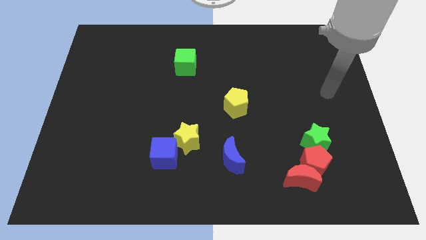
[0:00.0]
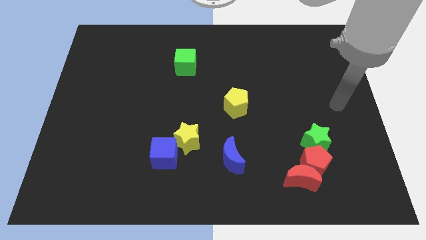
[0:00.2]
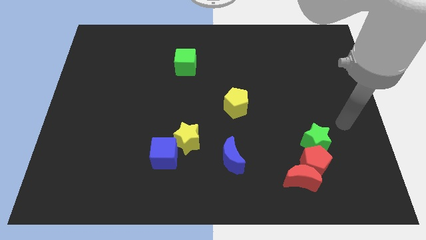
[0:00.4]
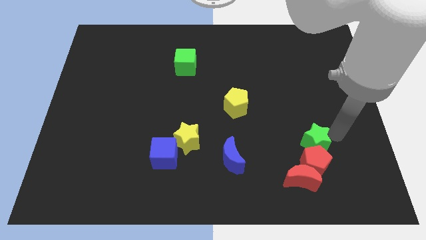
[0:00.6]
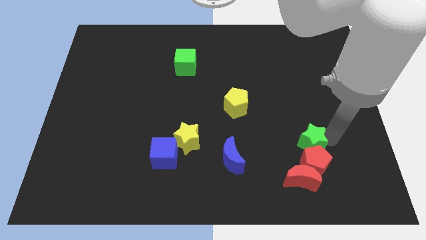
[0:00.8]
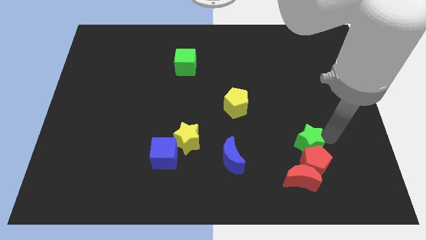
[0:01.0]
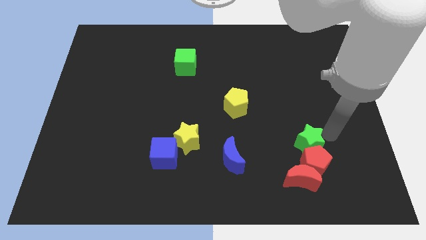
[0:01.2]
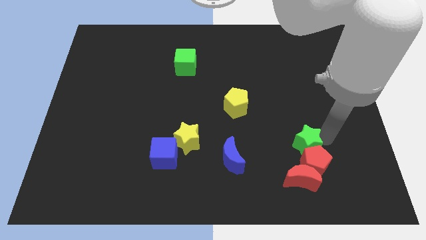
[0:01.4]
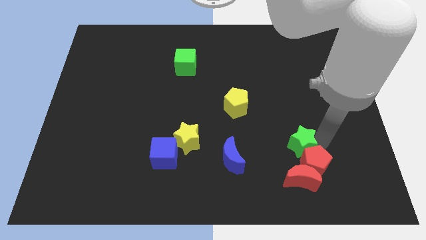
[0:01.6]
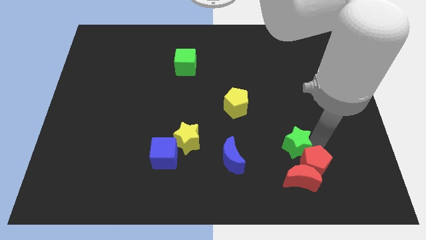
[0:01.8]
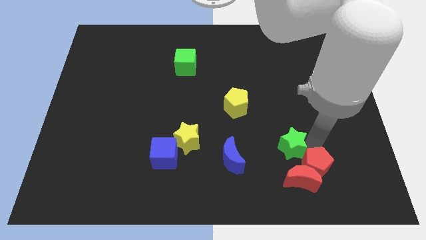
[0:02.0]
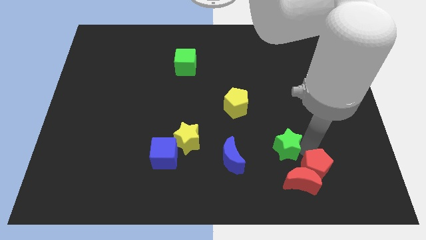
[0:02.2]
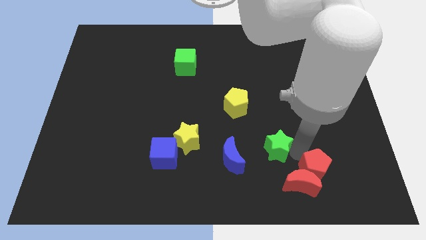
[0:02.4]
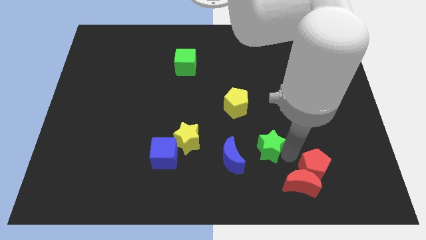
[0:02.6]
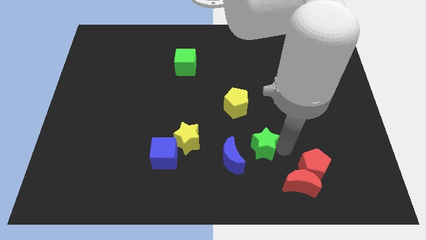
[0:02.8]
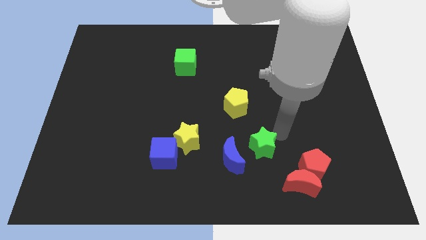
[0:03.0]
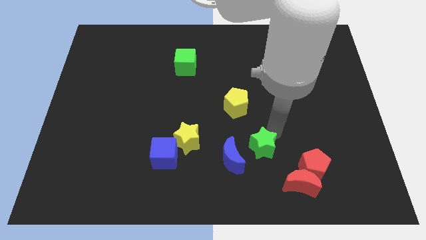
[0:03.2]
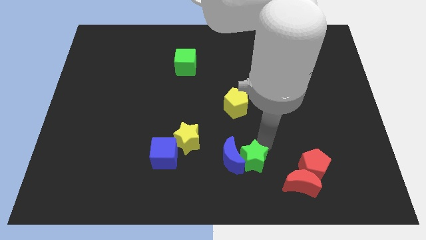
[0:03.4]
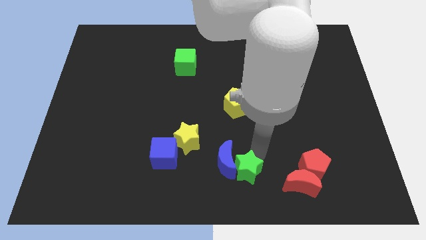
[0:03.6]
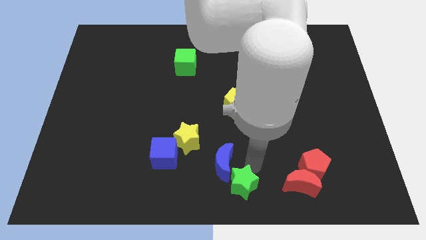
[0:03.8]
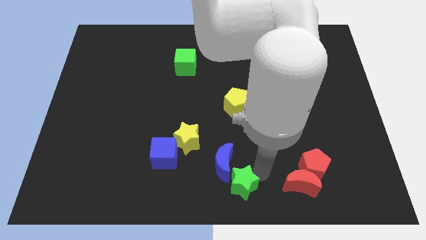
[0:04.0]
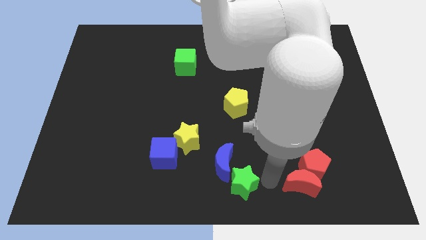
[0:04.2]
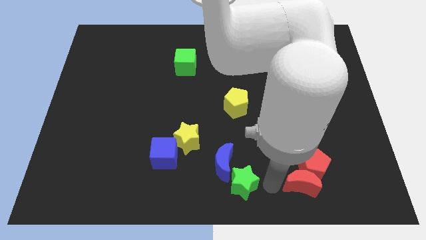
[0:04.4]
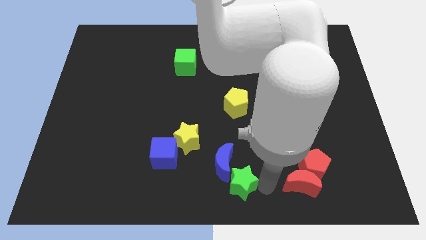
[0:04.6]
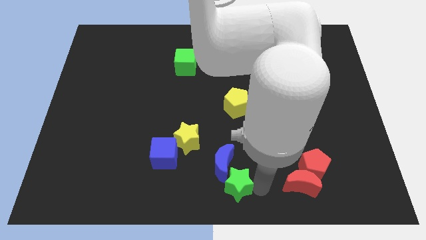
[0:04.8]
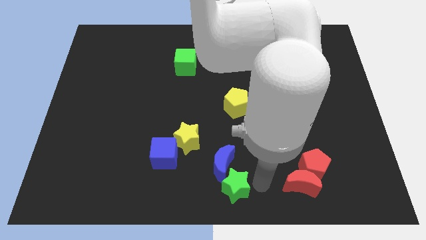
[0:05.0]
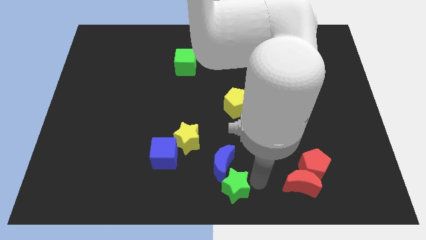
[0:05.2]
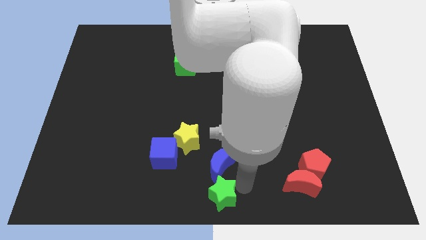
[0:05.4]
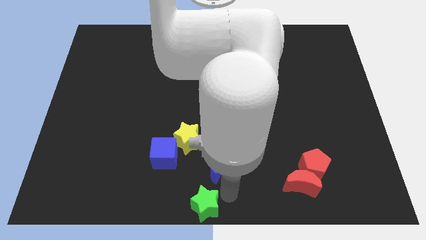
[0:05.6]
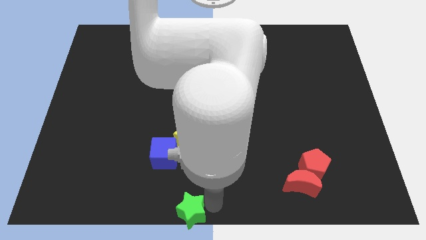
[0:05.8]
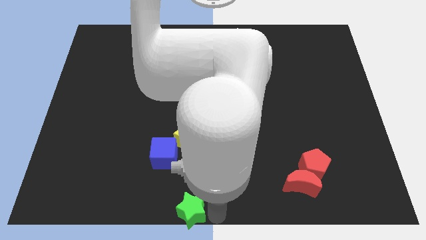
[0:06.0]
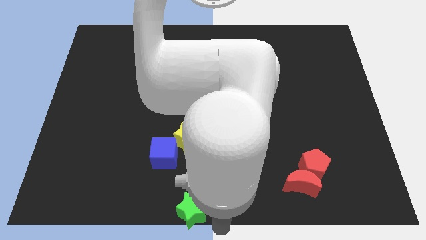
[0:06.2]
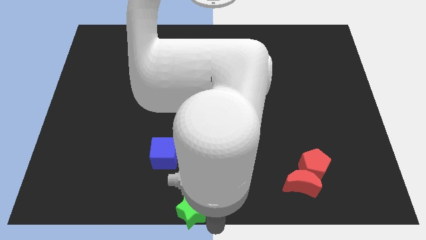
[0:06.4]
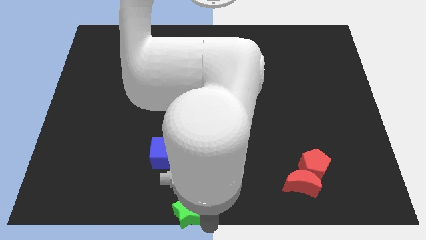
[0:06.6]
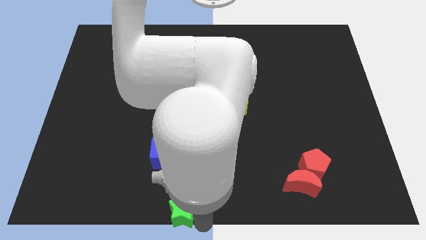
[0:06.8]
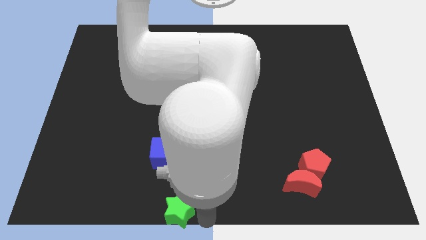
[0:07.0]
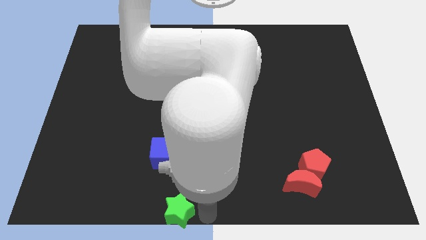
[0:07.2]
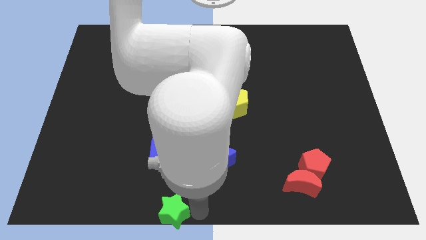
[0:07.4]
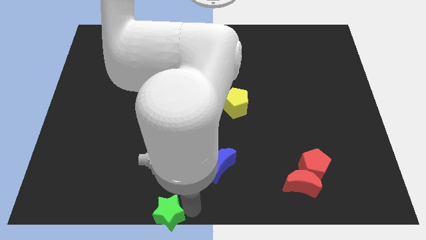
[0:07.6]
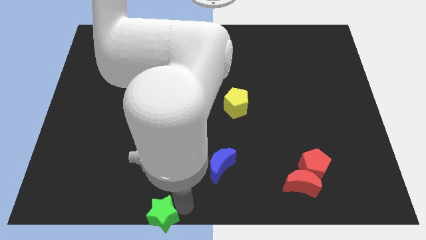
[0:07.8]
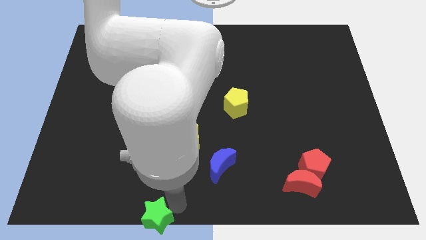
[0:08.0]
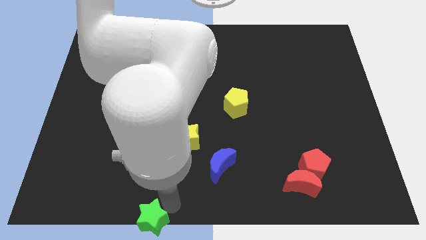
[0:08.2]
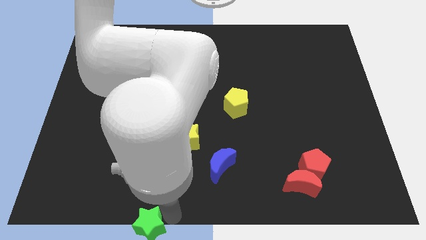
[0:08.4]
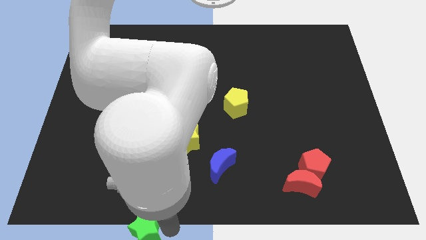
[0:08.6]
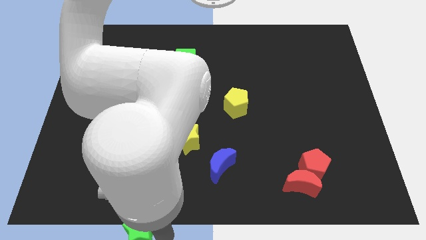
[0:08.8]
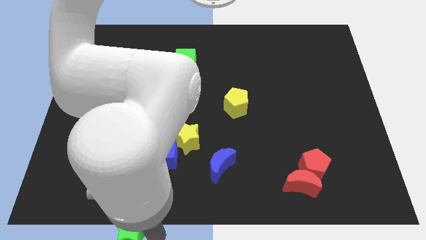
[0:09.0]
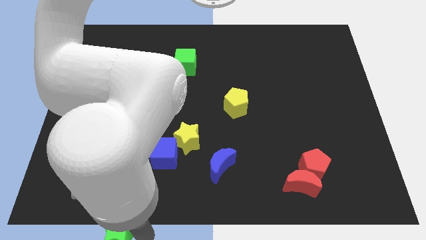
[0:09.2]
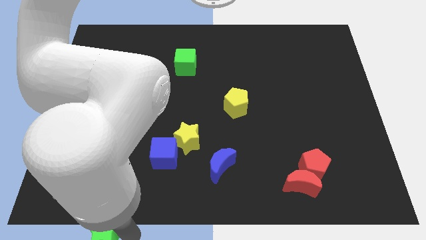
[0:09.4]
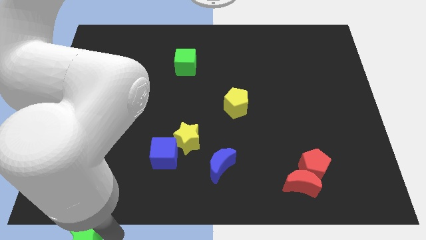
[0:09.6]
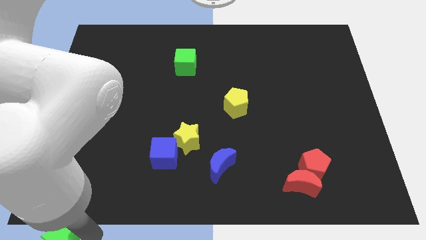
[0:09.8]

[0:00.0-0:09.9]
push the green star to the bottom left

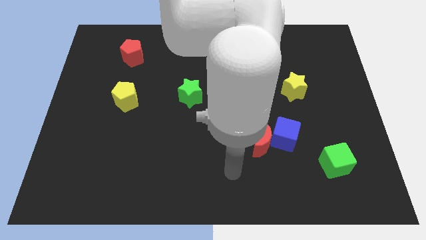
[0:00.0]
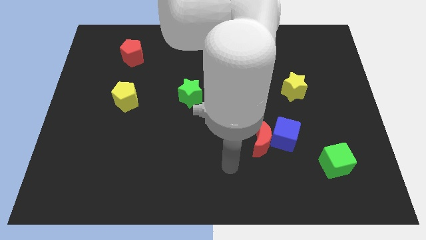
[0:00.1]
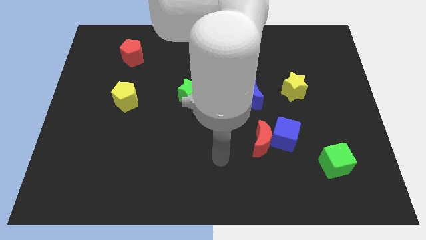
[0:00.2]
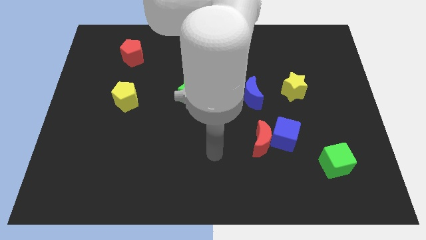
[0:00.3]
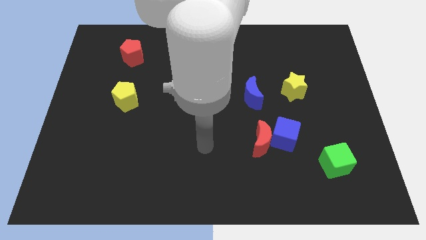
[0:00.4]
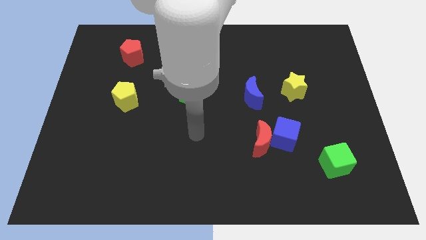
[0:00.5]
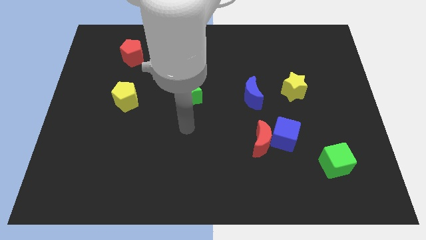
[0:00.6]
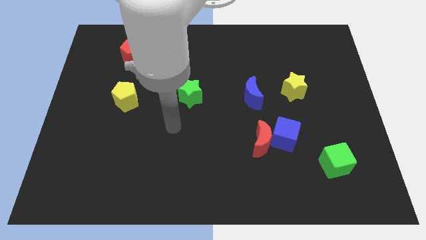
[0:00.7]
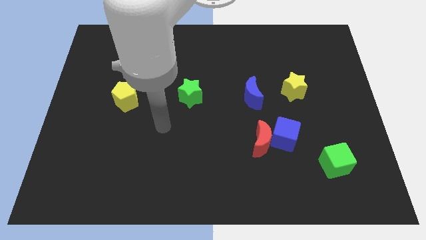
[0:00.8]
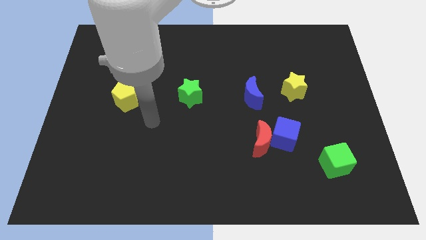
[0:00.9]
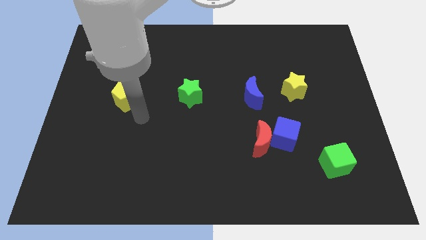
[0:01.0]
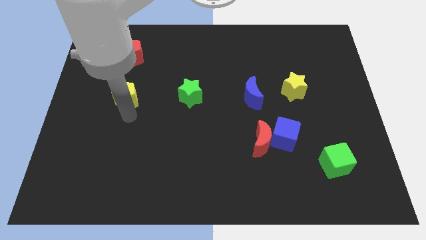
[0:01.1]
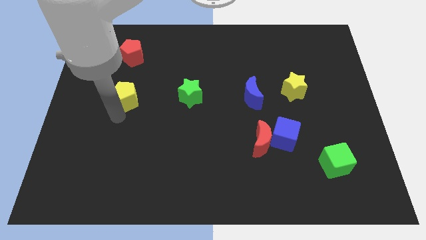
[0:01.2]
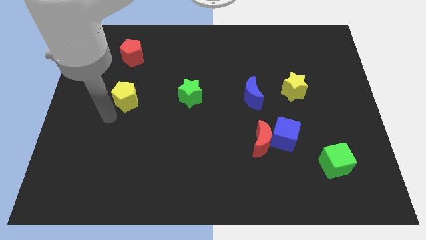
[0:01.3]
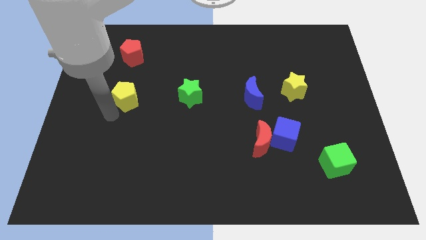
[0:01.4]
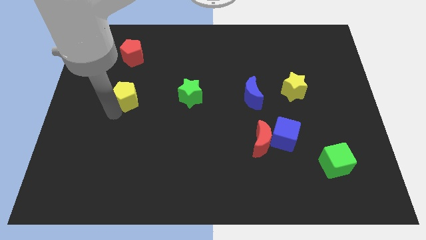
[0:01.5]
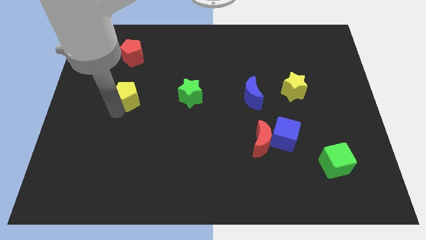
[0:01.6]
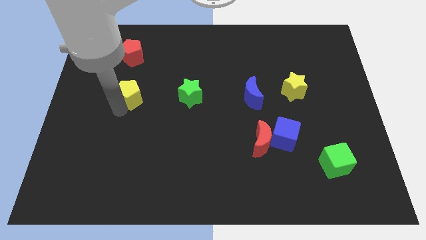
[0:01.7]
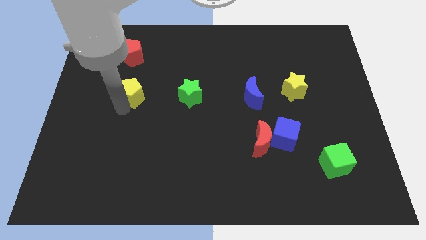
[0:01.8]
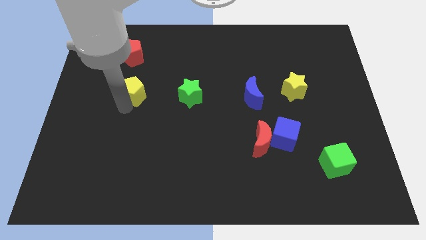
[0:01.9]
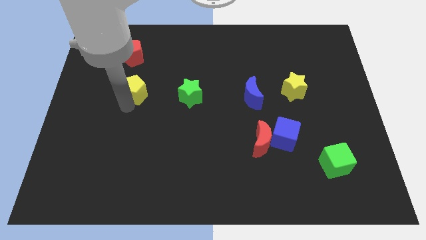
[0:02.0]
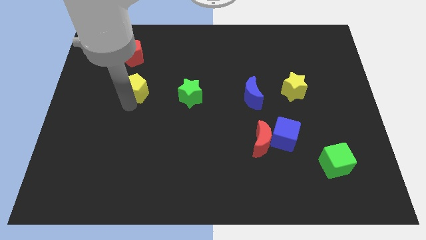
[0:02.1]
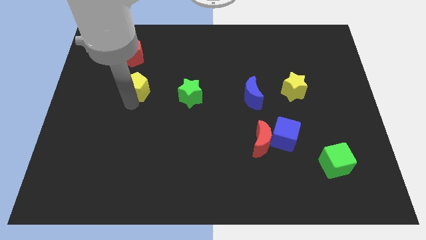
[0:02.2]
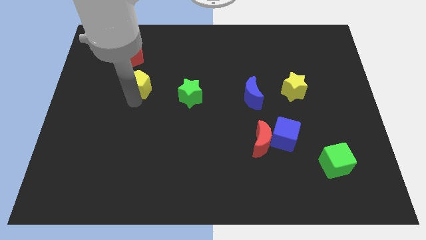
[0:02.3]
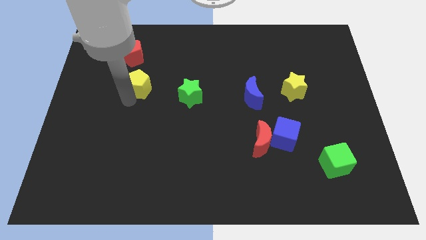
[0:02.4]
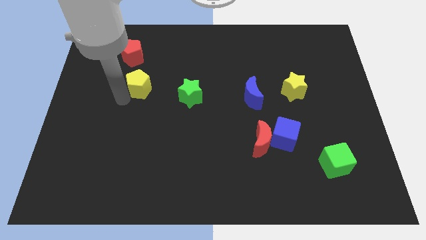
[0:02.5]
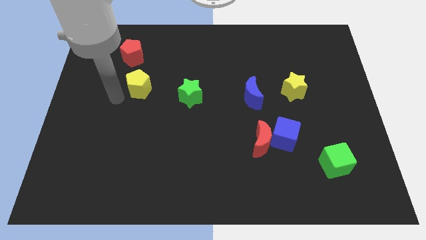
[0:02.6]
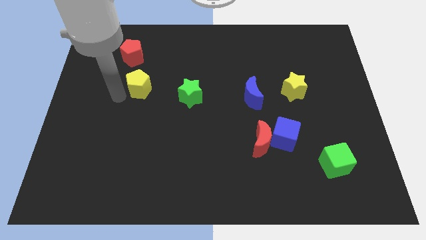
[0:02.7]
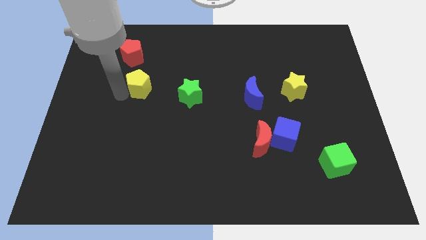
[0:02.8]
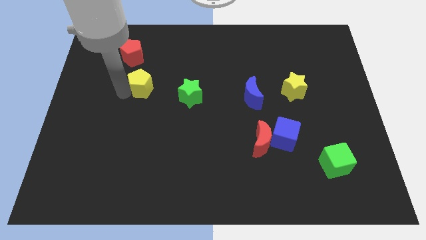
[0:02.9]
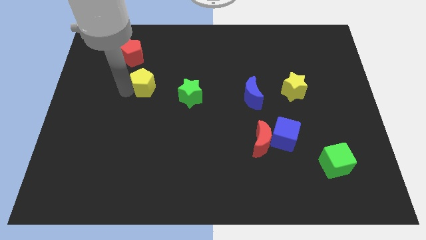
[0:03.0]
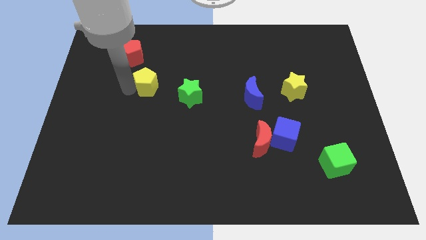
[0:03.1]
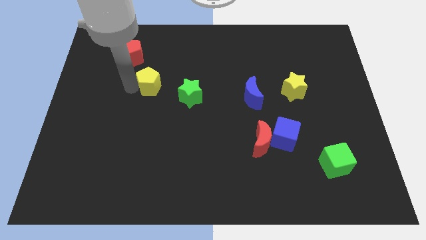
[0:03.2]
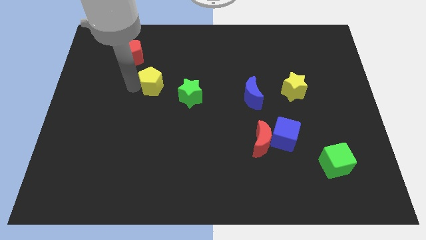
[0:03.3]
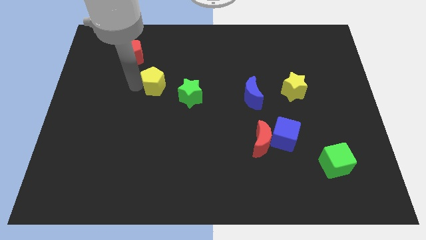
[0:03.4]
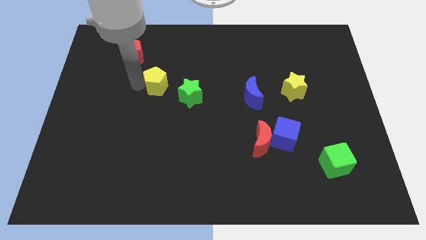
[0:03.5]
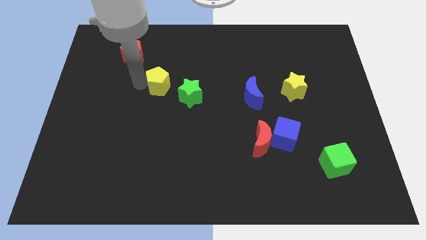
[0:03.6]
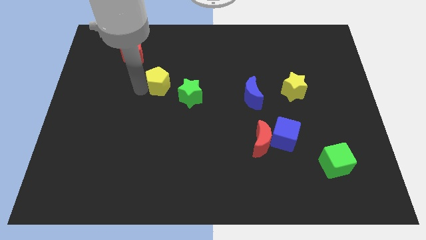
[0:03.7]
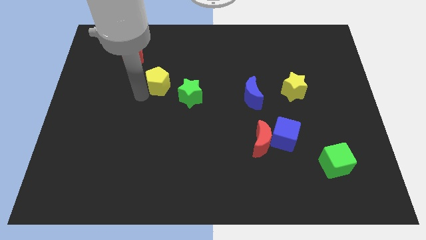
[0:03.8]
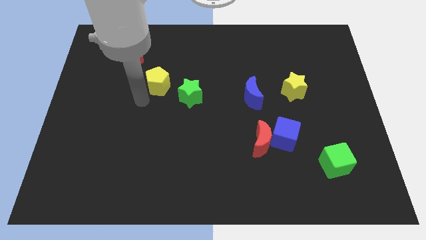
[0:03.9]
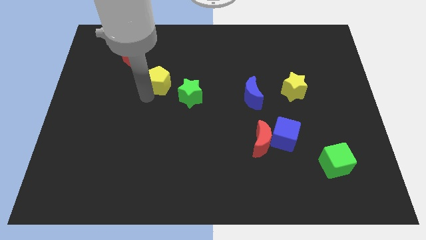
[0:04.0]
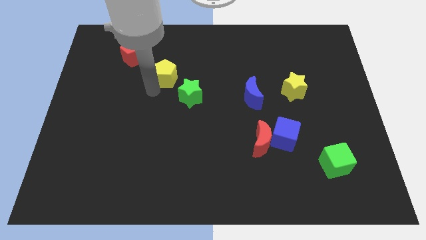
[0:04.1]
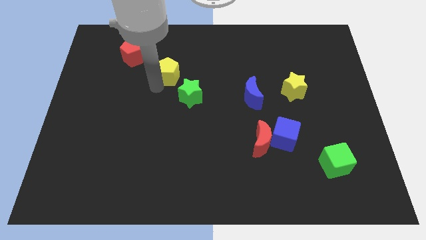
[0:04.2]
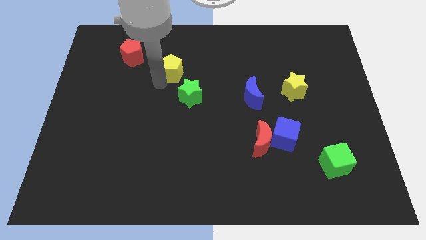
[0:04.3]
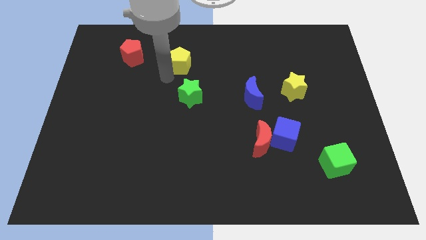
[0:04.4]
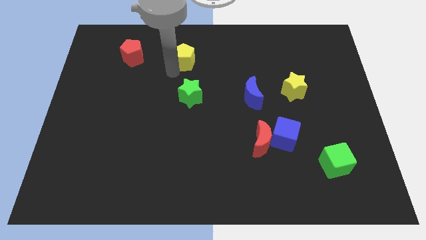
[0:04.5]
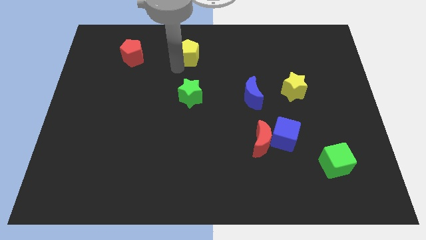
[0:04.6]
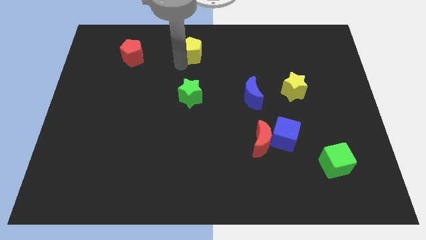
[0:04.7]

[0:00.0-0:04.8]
push the yellow pentagon to the towards your base
